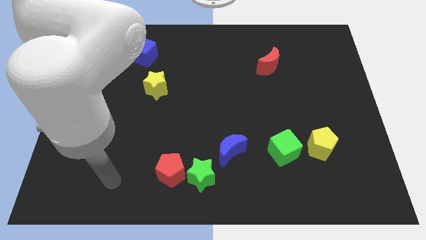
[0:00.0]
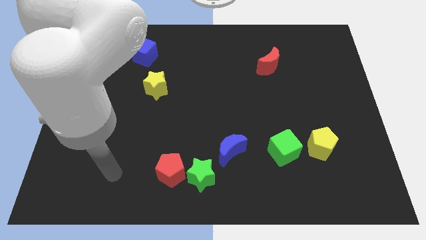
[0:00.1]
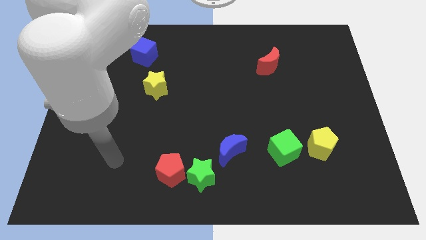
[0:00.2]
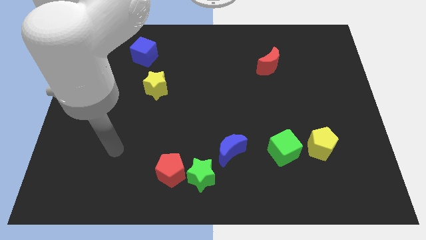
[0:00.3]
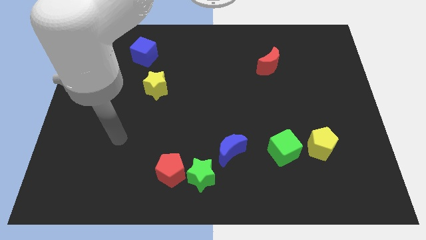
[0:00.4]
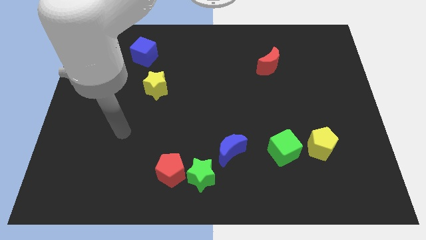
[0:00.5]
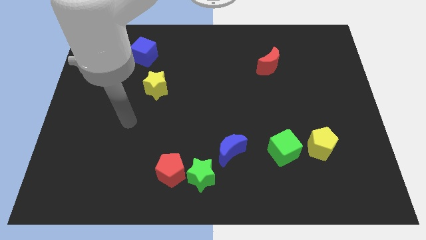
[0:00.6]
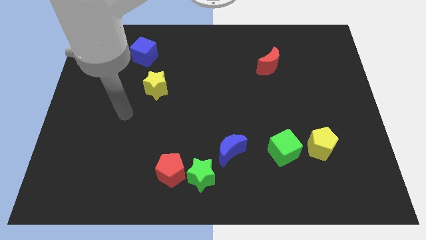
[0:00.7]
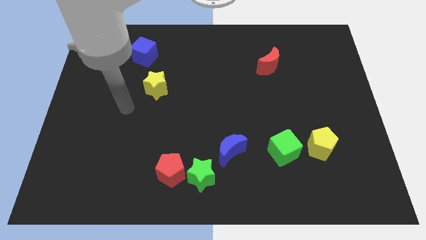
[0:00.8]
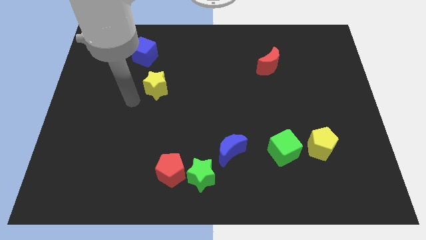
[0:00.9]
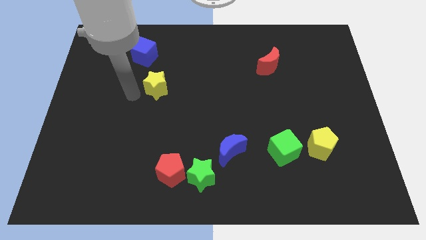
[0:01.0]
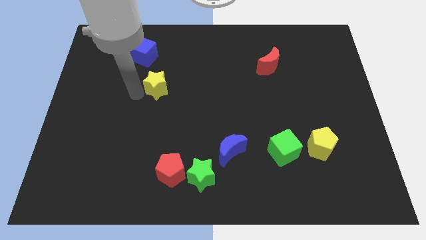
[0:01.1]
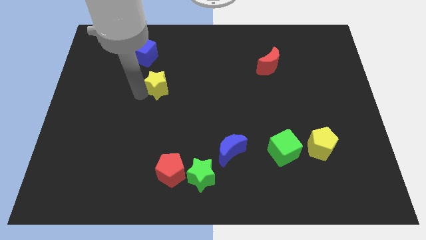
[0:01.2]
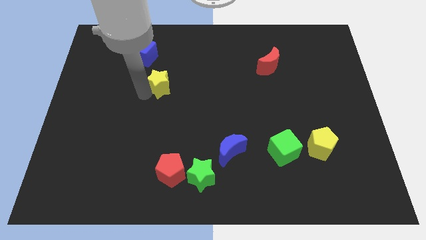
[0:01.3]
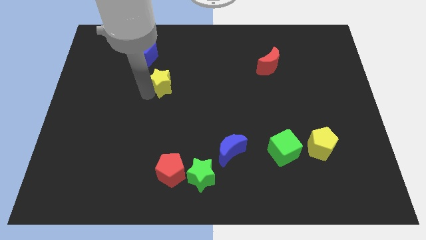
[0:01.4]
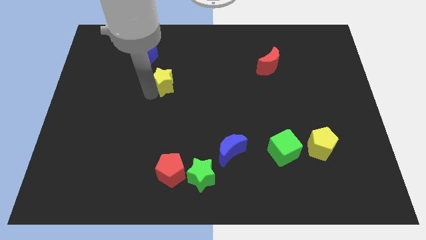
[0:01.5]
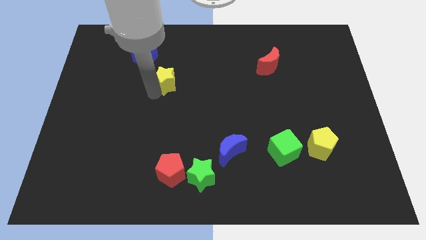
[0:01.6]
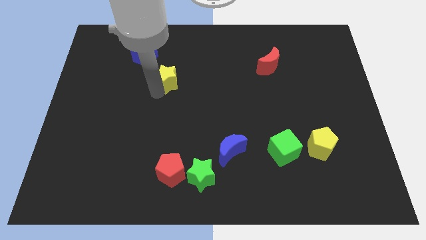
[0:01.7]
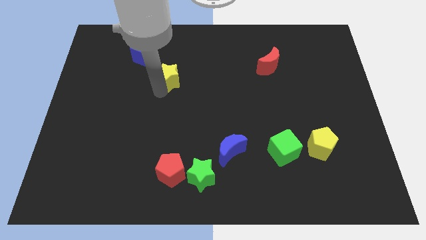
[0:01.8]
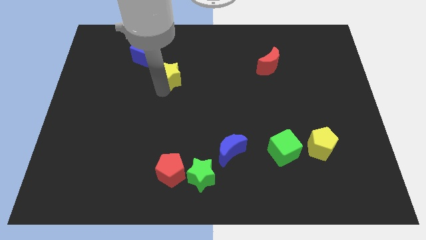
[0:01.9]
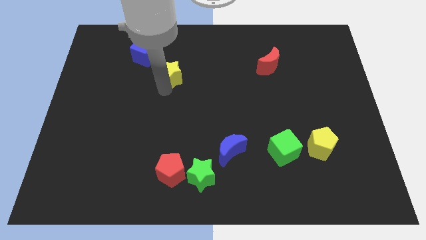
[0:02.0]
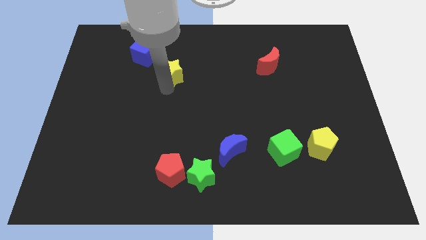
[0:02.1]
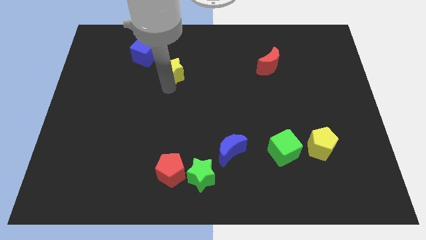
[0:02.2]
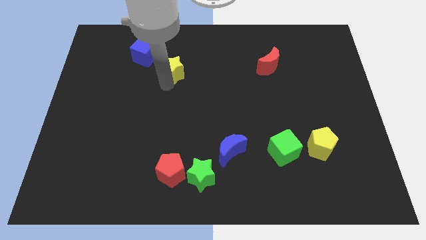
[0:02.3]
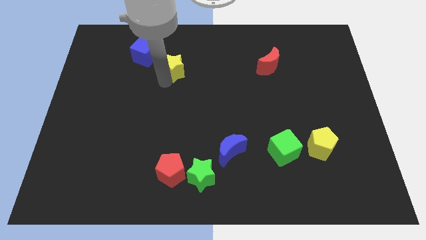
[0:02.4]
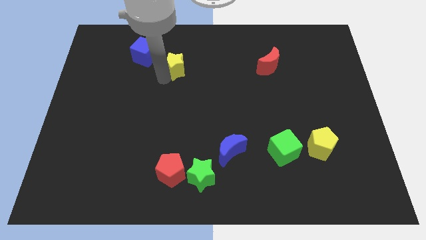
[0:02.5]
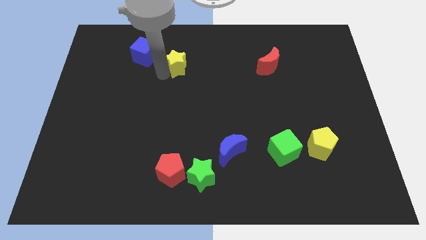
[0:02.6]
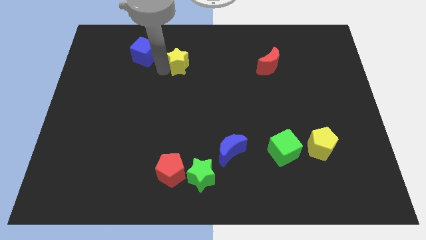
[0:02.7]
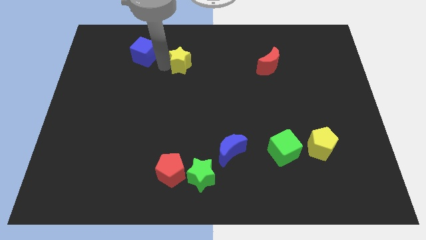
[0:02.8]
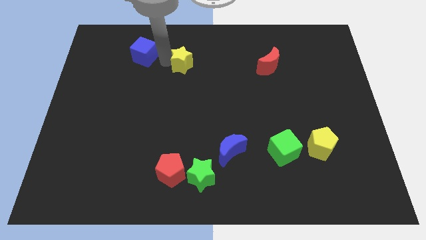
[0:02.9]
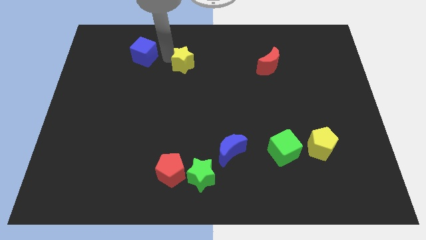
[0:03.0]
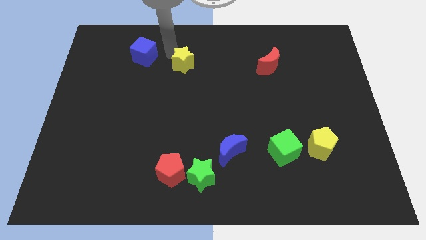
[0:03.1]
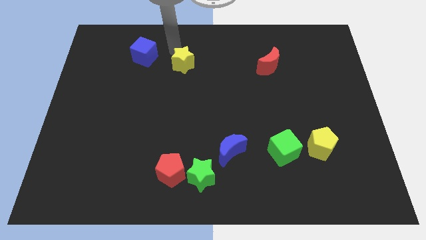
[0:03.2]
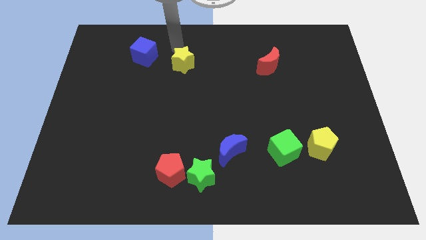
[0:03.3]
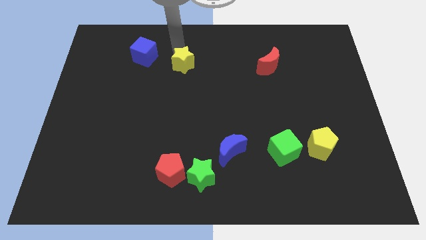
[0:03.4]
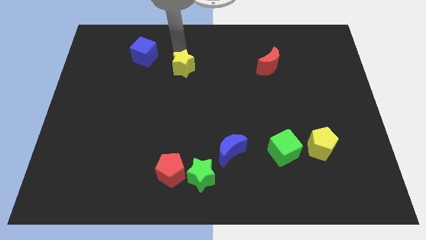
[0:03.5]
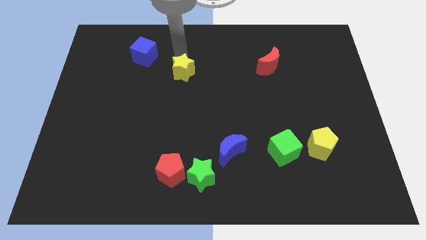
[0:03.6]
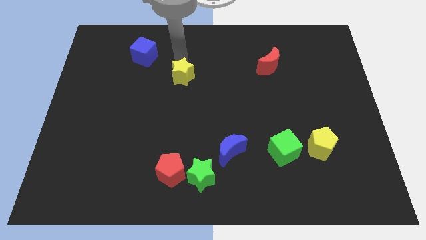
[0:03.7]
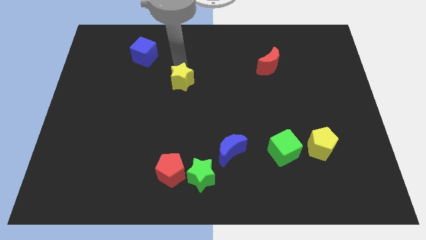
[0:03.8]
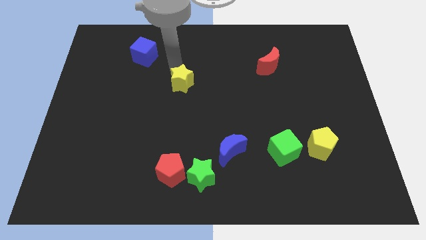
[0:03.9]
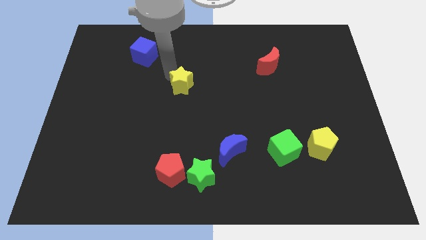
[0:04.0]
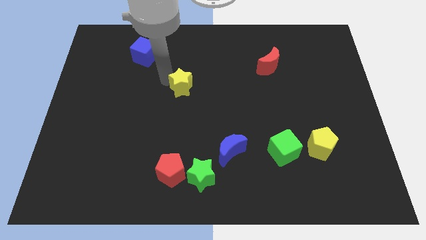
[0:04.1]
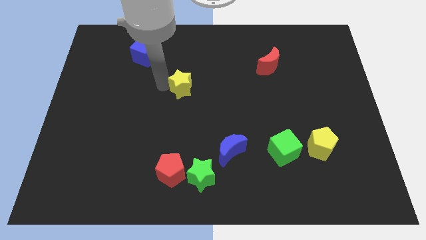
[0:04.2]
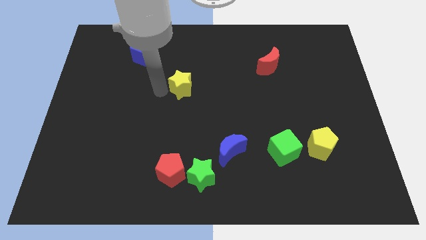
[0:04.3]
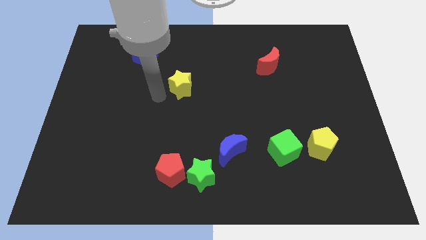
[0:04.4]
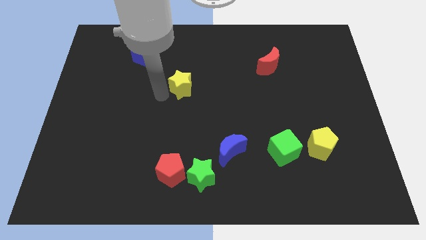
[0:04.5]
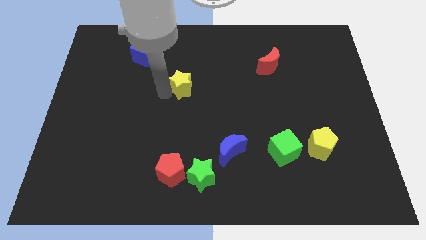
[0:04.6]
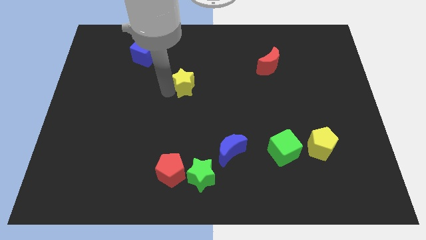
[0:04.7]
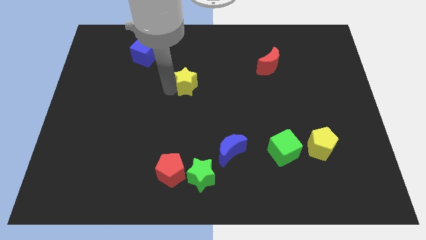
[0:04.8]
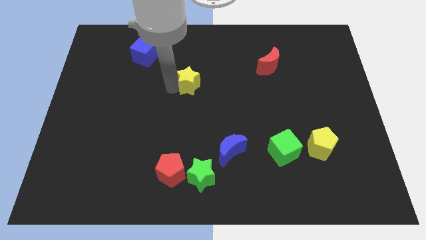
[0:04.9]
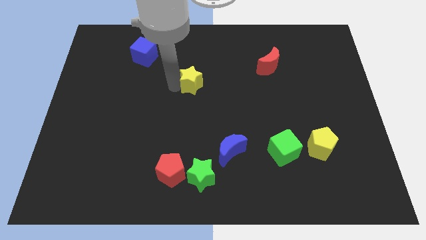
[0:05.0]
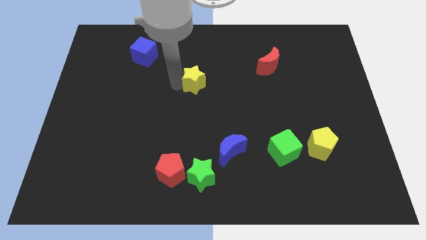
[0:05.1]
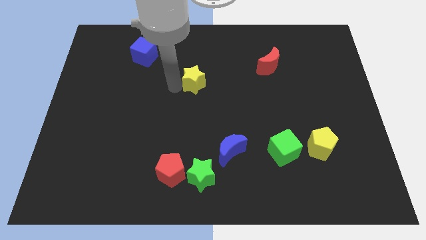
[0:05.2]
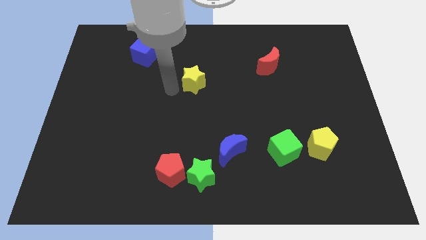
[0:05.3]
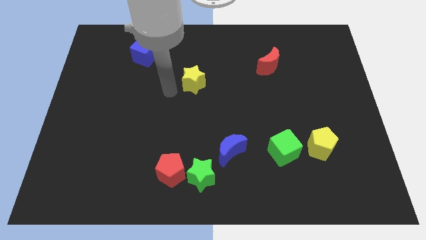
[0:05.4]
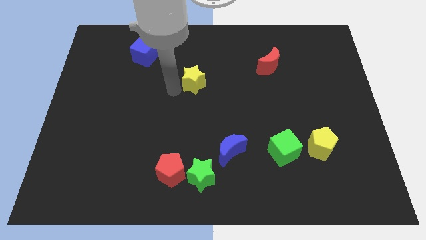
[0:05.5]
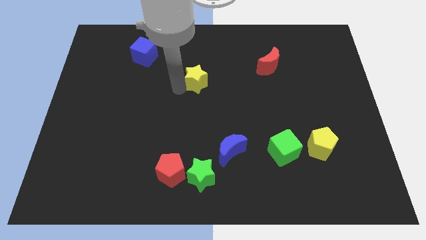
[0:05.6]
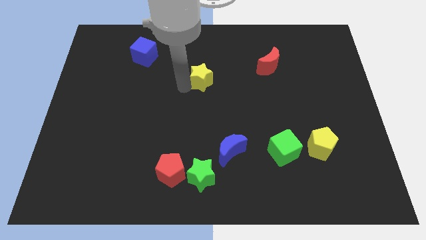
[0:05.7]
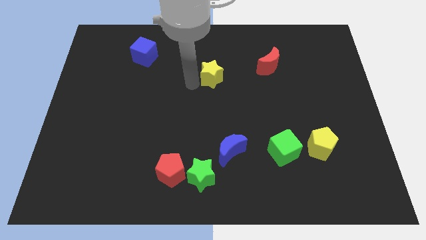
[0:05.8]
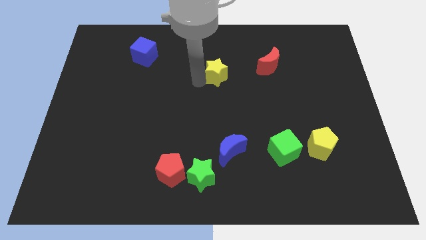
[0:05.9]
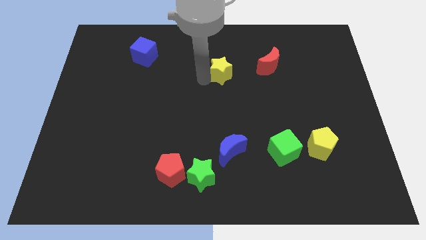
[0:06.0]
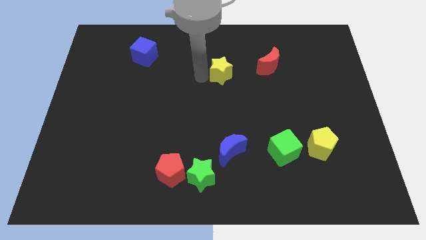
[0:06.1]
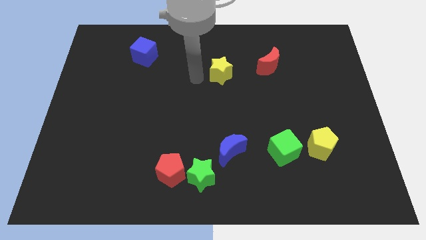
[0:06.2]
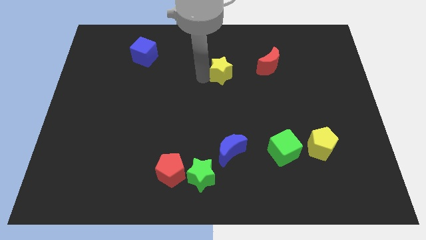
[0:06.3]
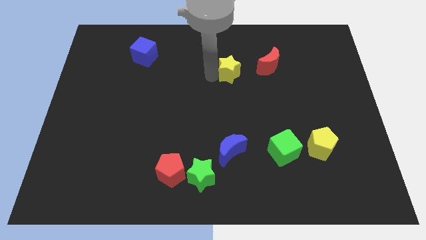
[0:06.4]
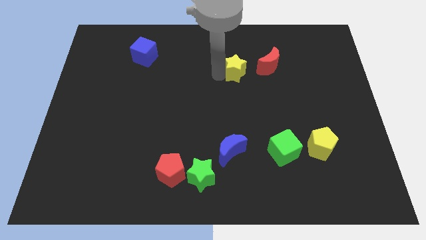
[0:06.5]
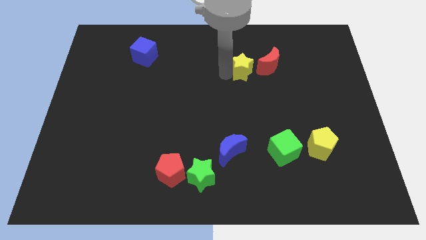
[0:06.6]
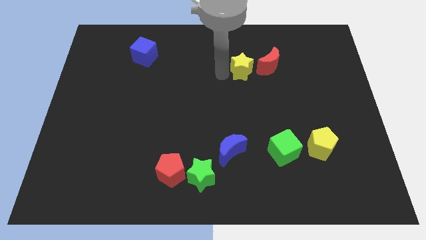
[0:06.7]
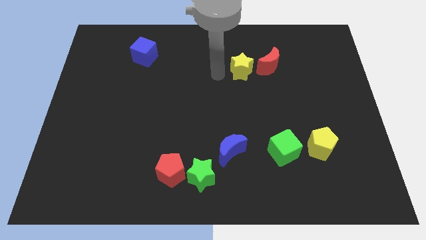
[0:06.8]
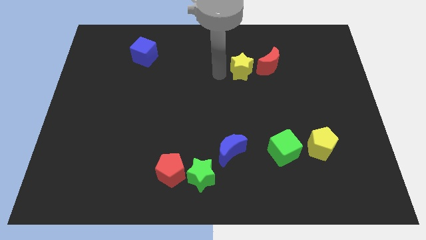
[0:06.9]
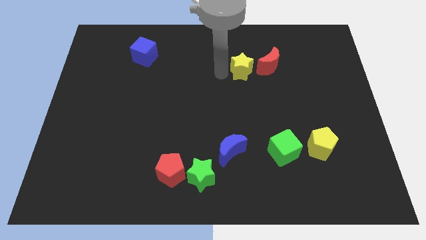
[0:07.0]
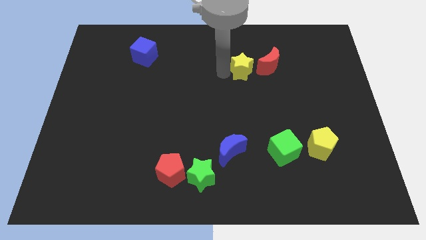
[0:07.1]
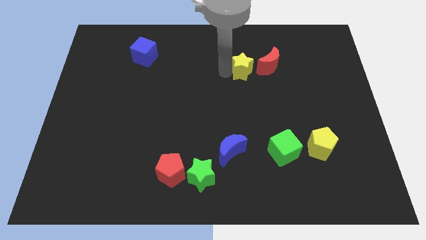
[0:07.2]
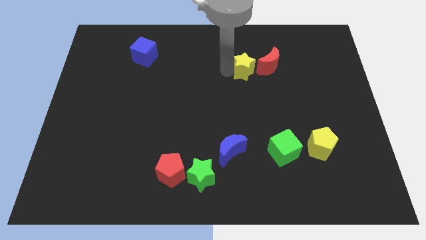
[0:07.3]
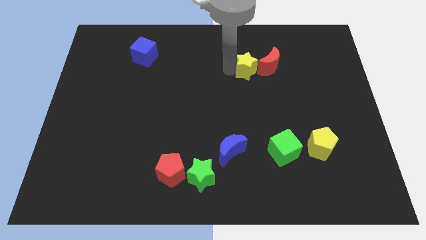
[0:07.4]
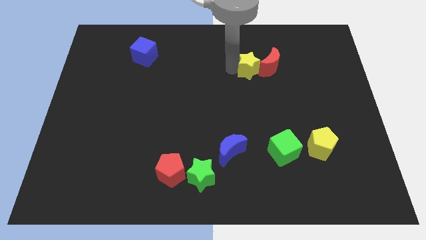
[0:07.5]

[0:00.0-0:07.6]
put the yellow star next to the red moon

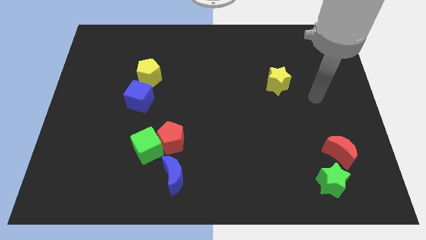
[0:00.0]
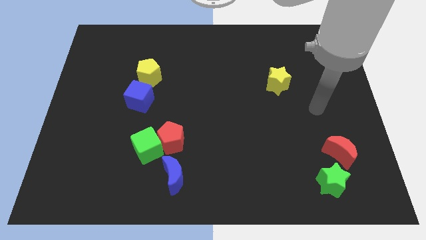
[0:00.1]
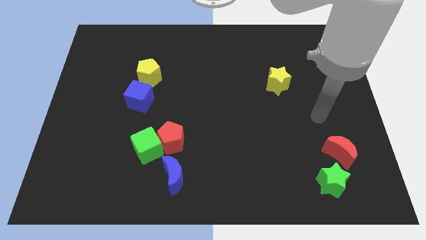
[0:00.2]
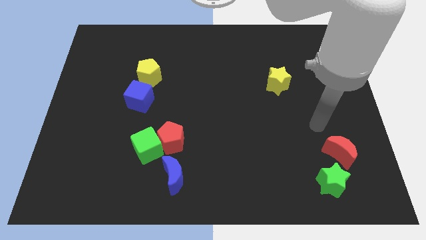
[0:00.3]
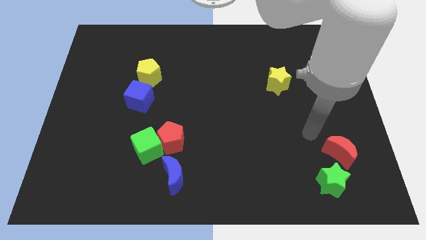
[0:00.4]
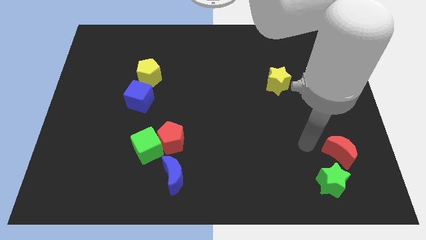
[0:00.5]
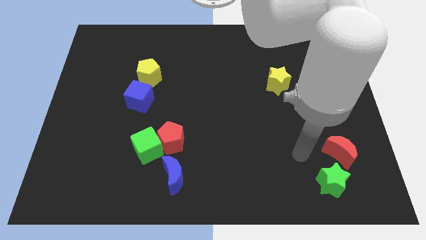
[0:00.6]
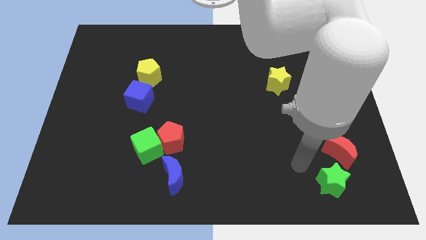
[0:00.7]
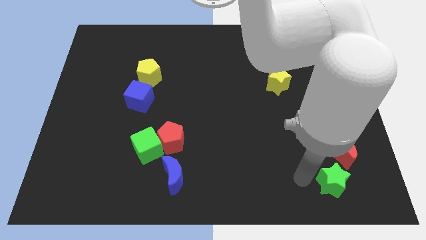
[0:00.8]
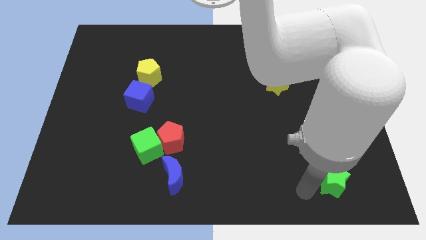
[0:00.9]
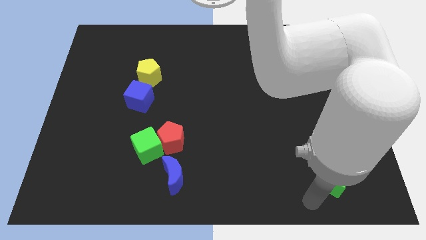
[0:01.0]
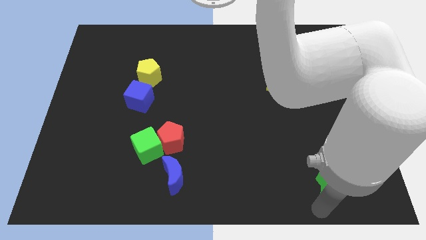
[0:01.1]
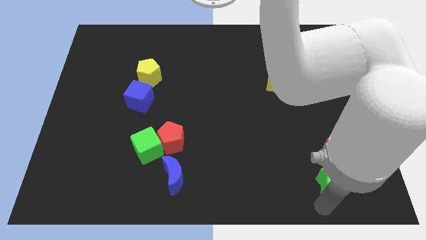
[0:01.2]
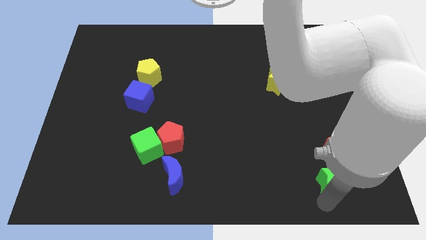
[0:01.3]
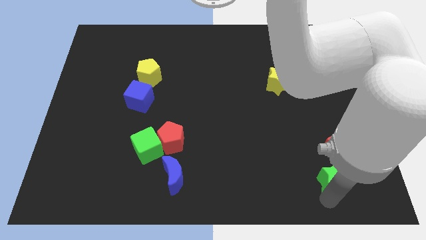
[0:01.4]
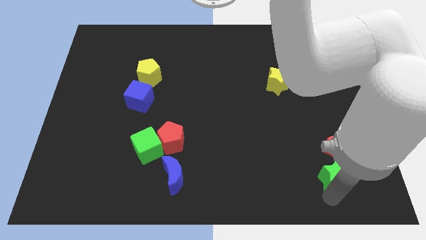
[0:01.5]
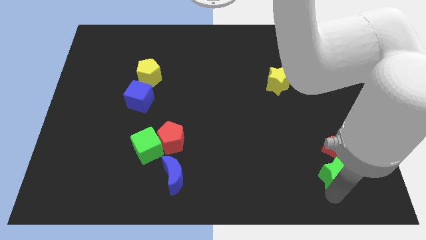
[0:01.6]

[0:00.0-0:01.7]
move the green star next to the red moon
